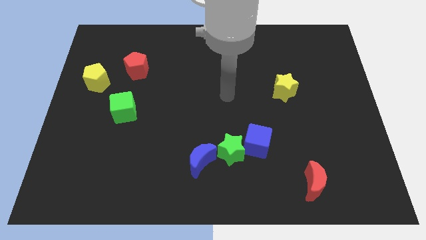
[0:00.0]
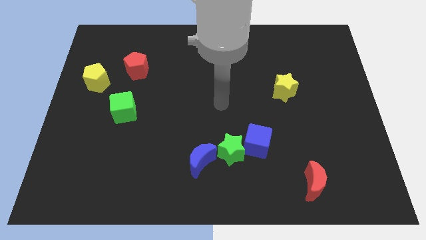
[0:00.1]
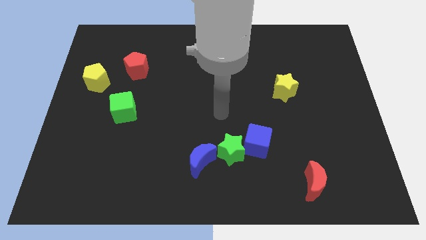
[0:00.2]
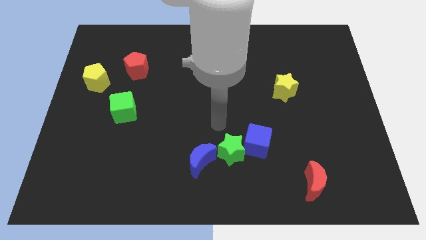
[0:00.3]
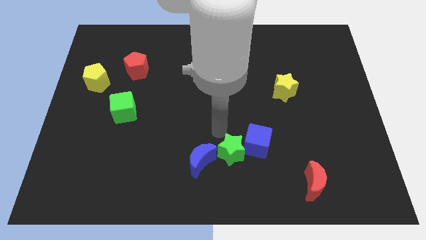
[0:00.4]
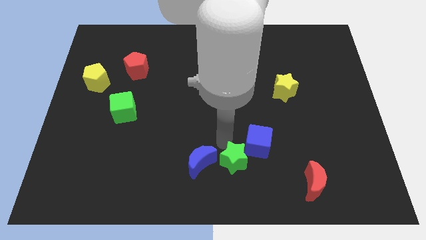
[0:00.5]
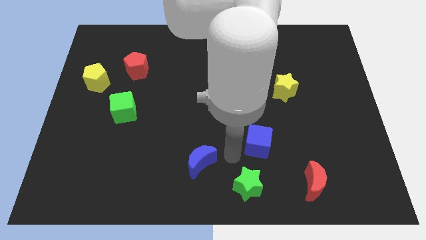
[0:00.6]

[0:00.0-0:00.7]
pull the blue cube apart from the green star

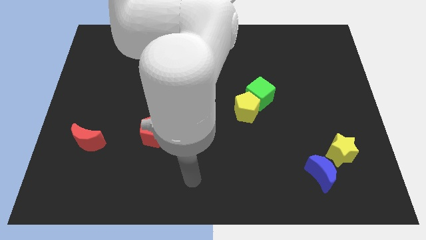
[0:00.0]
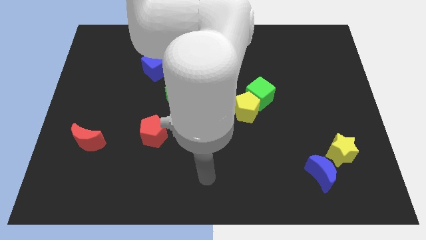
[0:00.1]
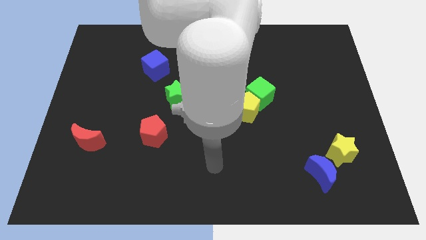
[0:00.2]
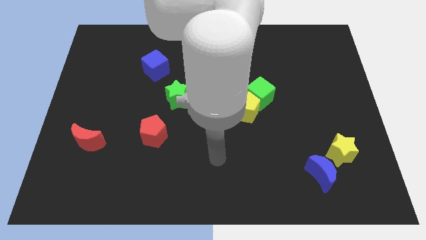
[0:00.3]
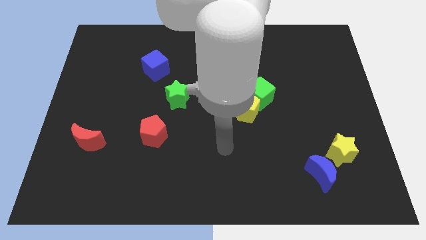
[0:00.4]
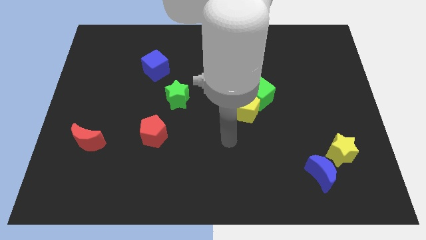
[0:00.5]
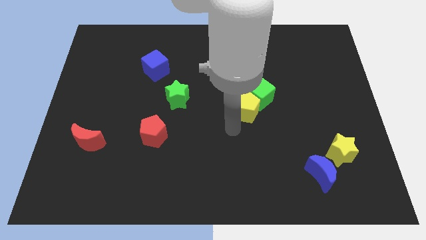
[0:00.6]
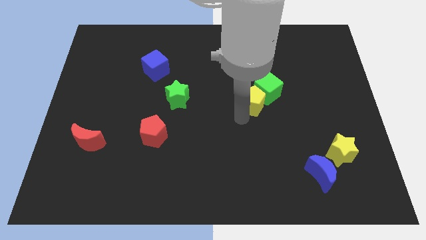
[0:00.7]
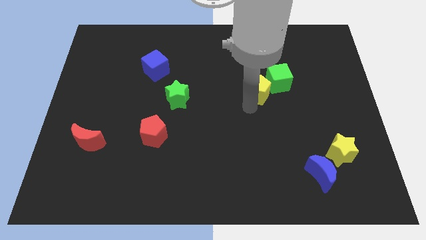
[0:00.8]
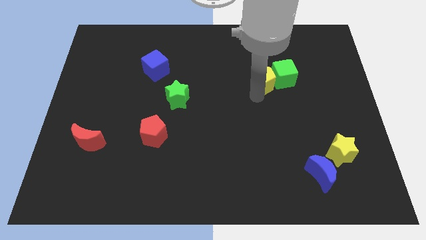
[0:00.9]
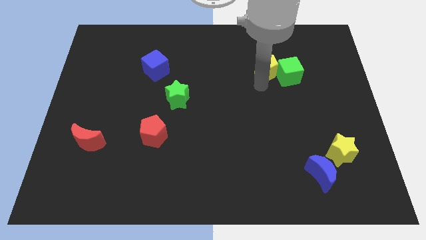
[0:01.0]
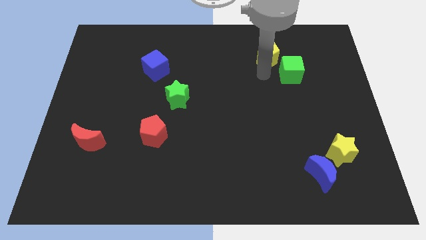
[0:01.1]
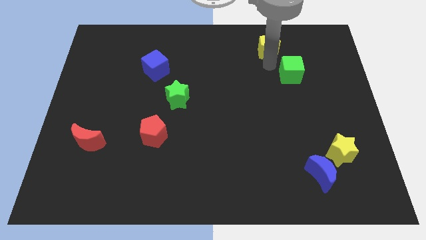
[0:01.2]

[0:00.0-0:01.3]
pull the green cube apart from the yellow pentagon

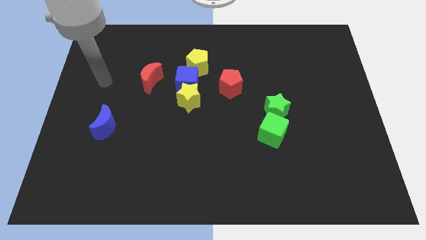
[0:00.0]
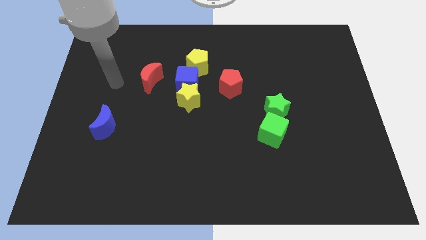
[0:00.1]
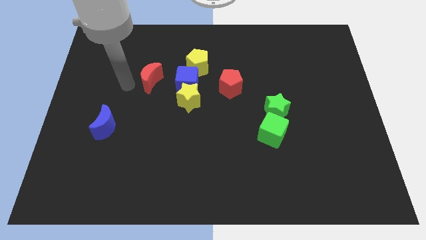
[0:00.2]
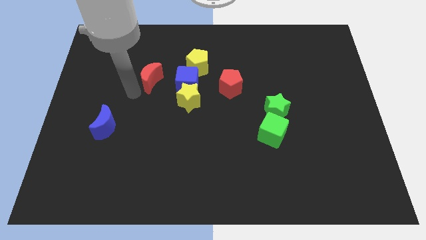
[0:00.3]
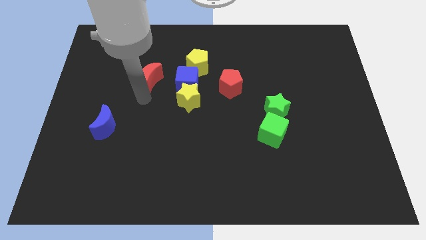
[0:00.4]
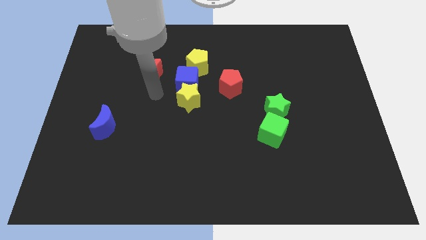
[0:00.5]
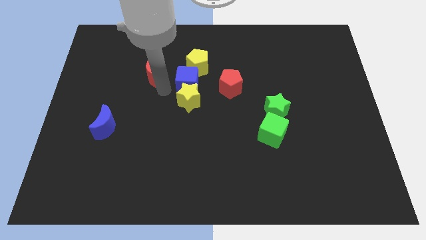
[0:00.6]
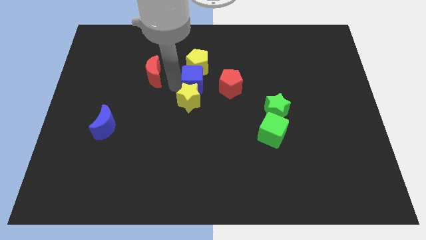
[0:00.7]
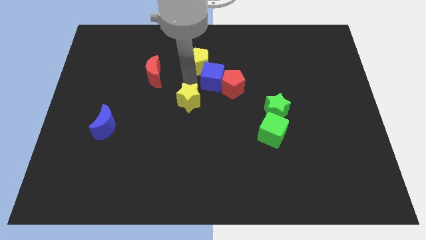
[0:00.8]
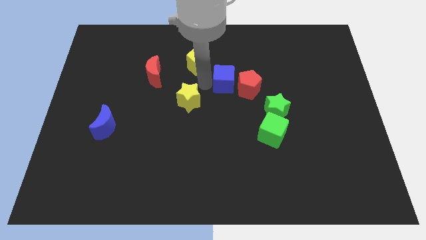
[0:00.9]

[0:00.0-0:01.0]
move the yellow star away from the blue cube

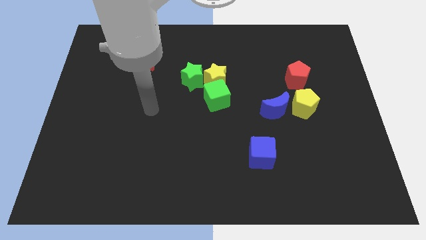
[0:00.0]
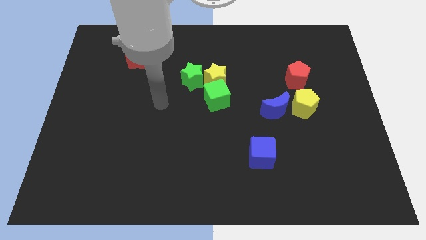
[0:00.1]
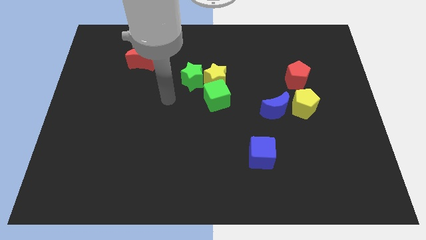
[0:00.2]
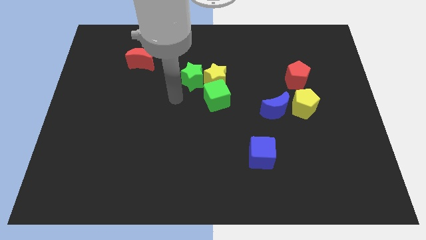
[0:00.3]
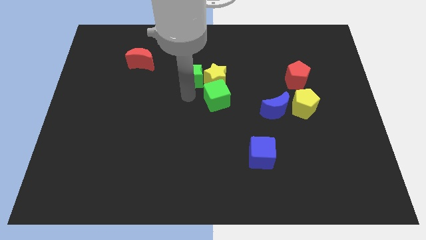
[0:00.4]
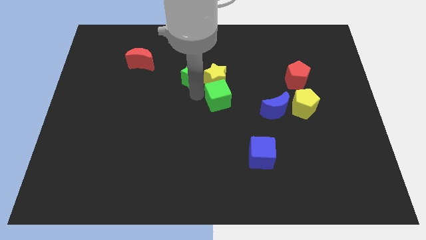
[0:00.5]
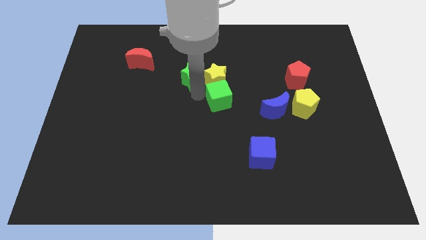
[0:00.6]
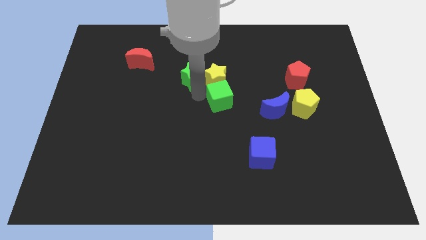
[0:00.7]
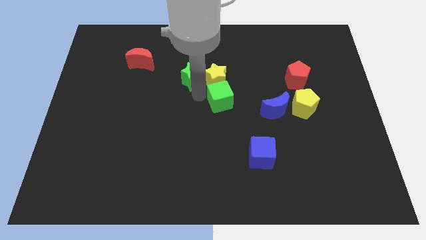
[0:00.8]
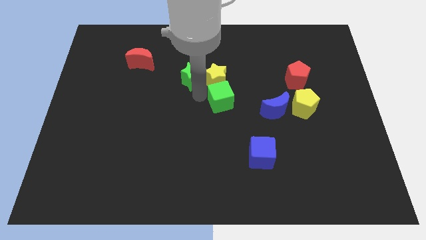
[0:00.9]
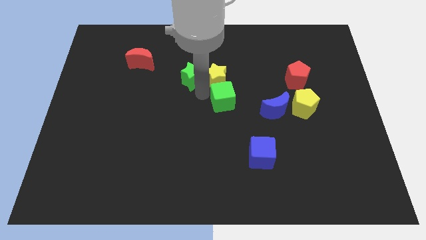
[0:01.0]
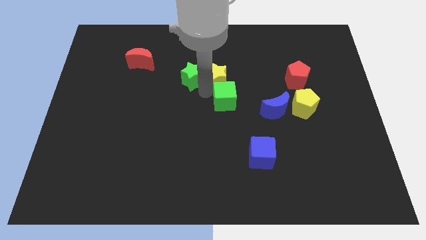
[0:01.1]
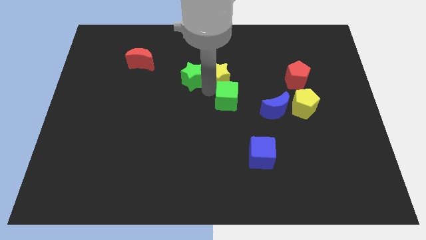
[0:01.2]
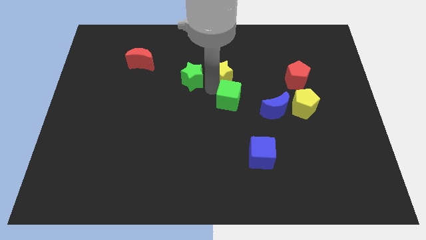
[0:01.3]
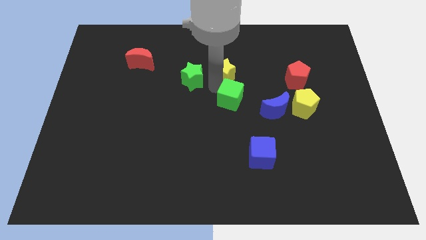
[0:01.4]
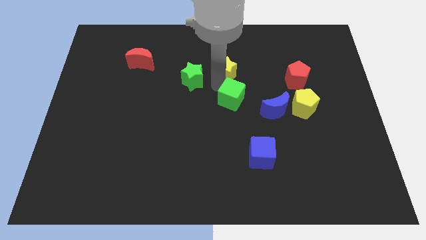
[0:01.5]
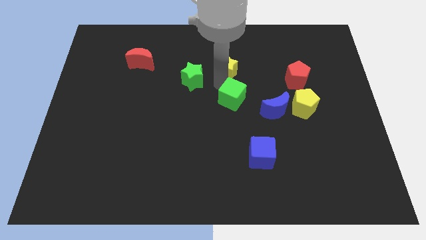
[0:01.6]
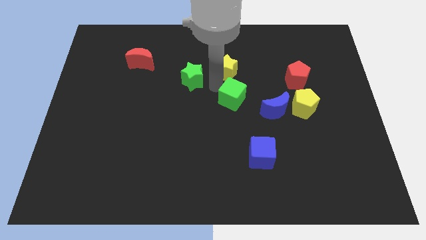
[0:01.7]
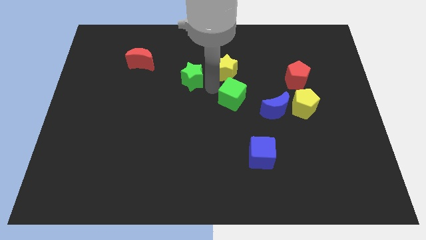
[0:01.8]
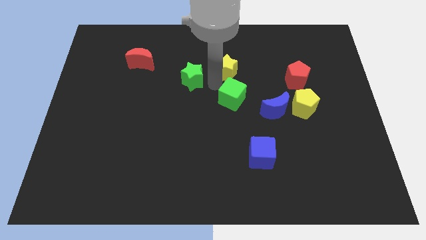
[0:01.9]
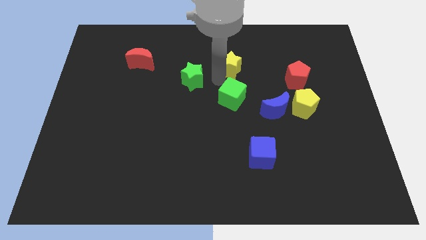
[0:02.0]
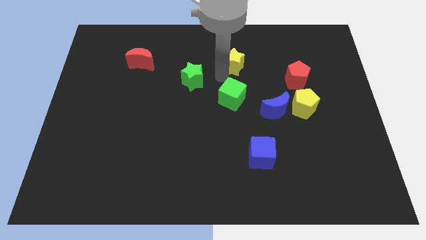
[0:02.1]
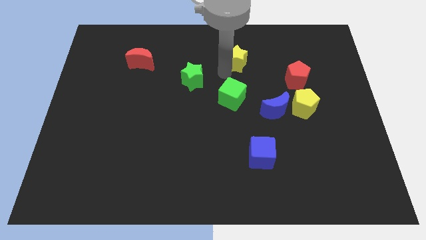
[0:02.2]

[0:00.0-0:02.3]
pull the yellow star apart from the green star and green cube

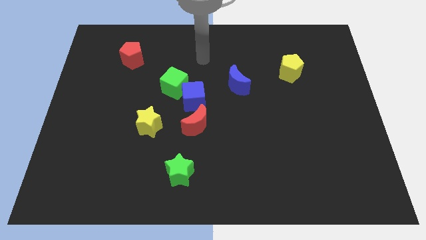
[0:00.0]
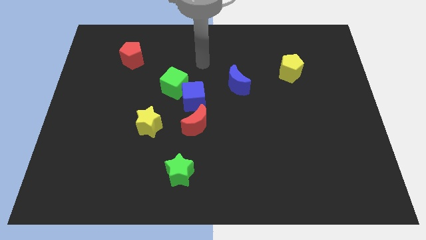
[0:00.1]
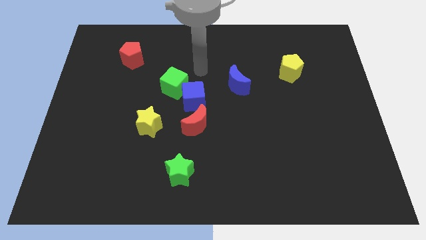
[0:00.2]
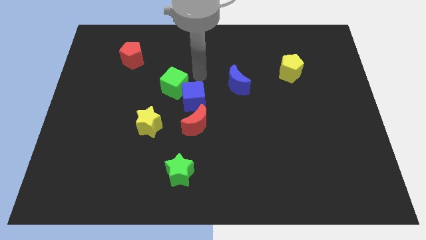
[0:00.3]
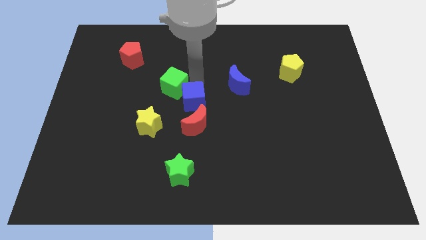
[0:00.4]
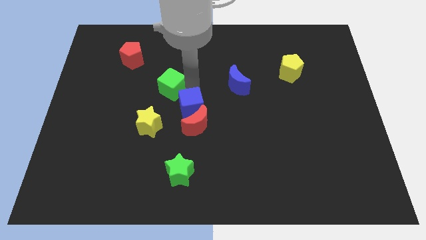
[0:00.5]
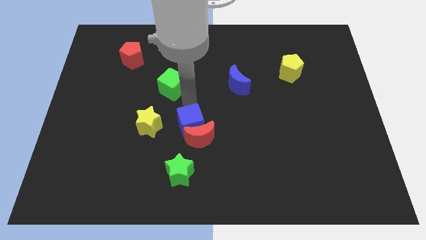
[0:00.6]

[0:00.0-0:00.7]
separate the green cube from the blue cube

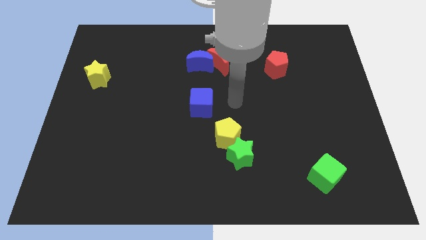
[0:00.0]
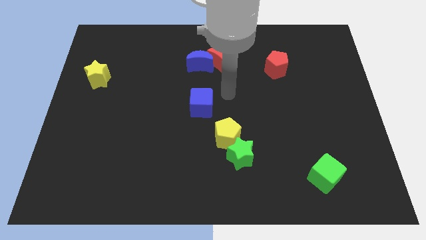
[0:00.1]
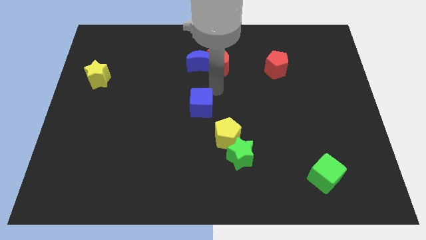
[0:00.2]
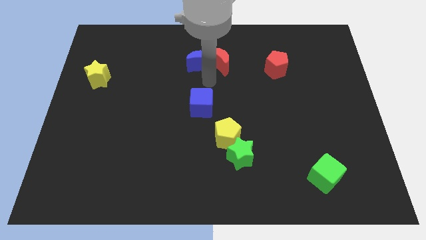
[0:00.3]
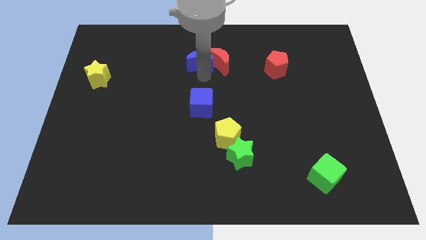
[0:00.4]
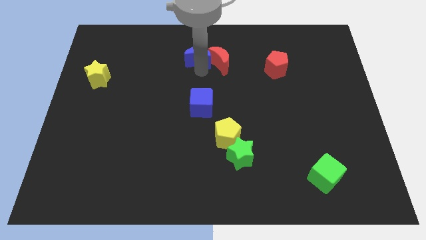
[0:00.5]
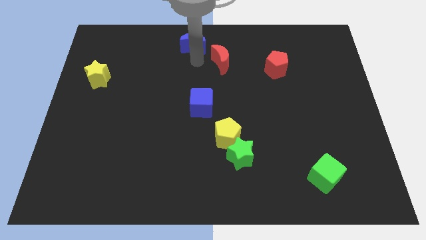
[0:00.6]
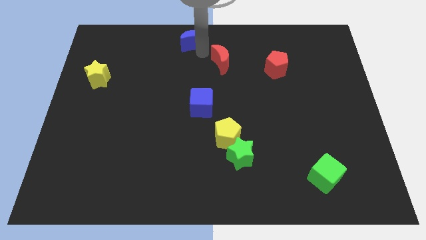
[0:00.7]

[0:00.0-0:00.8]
move the red moon away from the blue moon

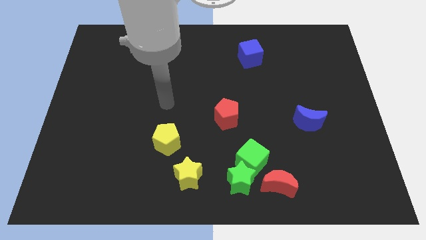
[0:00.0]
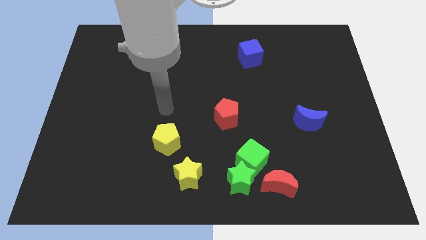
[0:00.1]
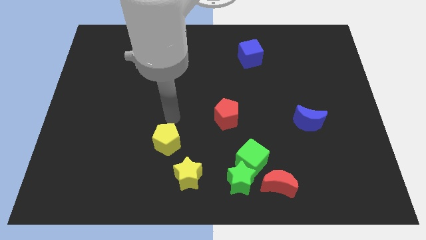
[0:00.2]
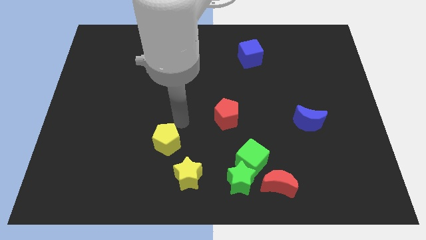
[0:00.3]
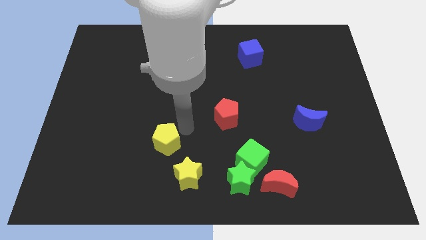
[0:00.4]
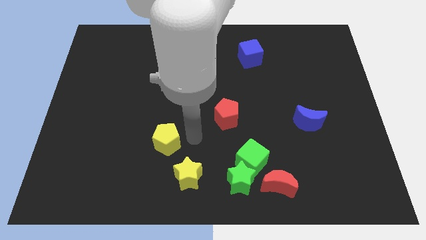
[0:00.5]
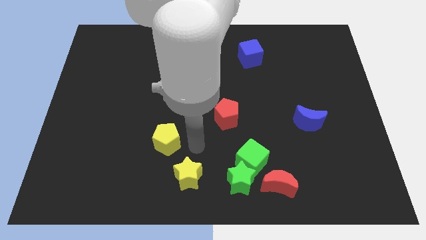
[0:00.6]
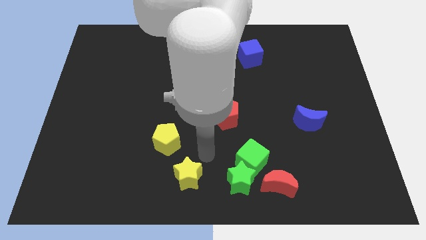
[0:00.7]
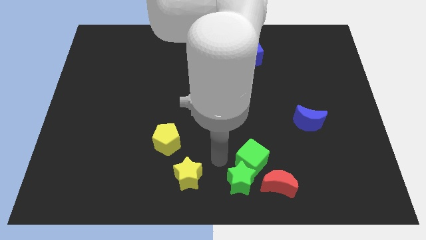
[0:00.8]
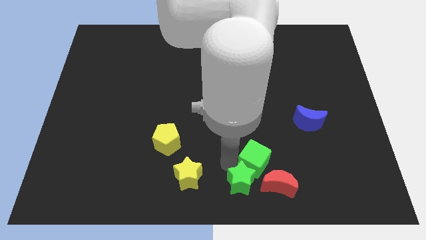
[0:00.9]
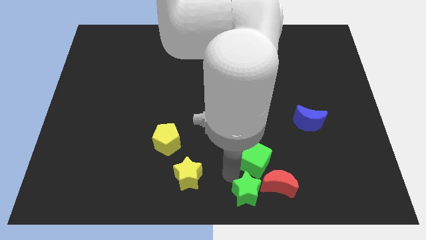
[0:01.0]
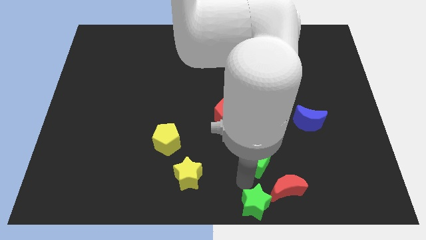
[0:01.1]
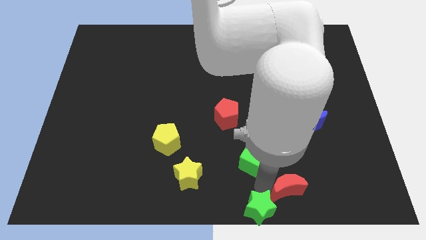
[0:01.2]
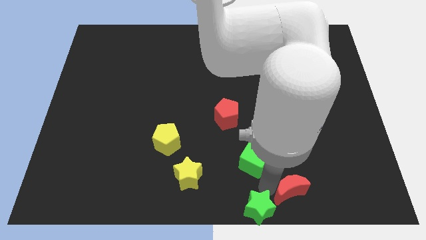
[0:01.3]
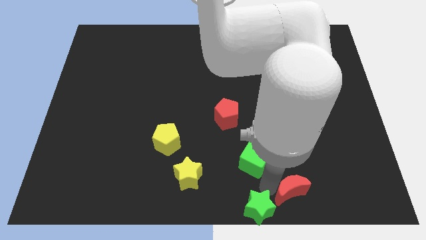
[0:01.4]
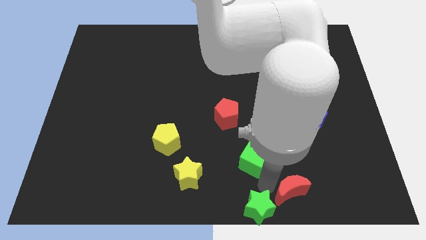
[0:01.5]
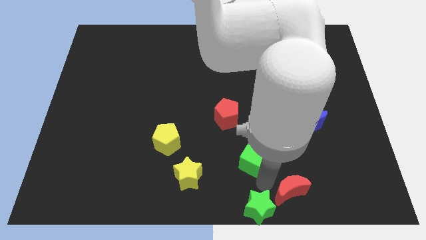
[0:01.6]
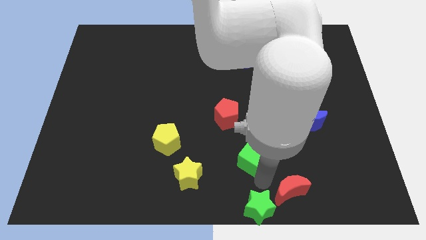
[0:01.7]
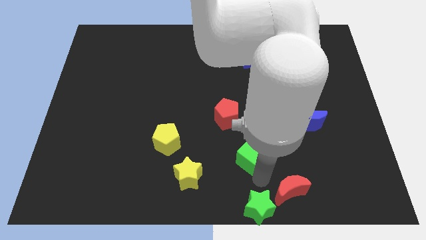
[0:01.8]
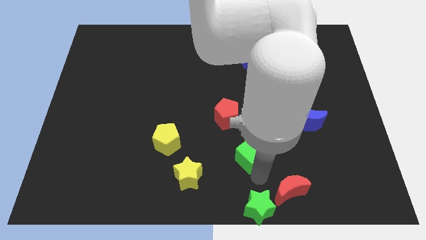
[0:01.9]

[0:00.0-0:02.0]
separate the green cube from the green star and red moon

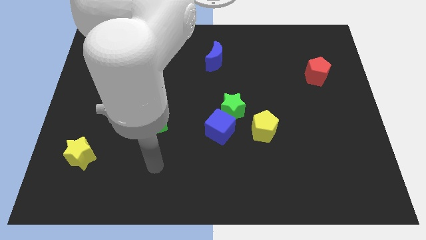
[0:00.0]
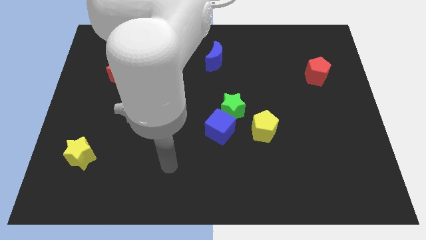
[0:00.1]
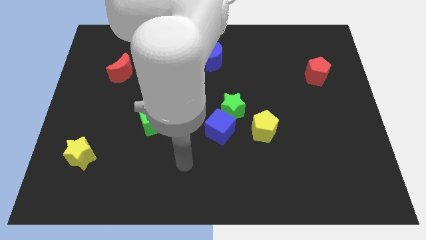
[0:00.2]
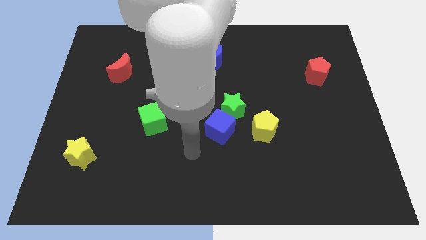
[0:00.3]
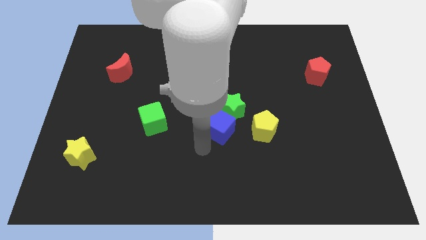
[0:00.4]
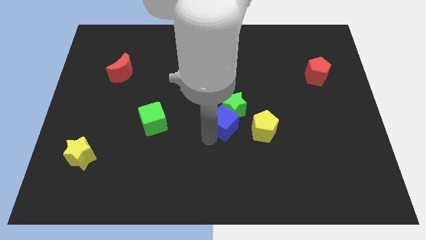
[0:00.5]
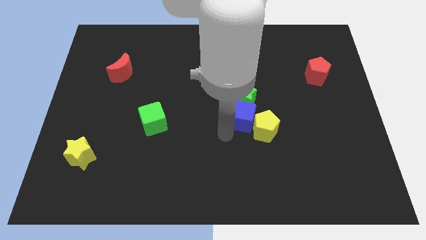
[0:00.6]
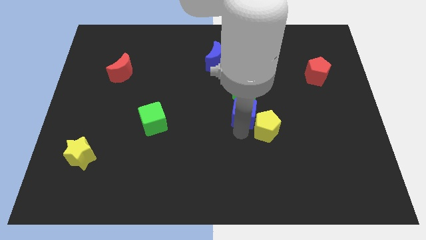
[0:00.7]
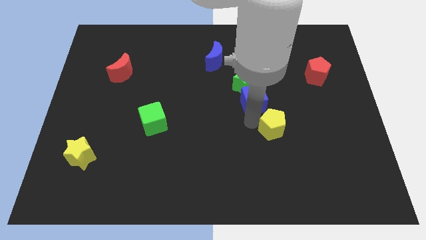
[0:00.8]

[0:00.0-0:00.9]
pull the green star apart from the blue cube and yellow pentagon
